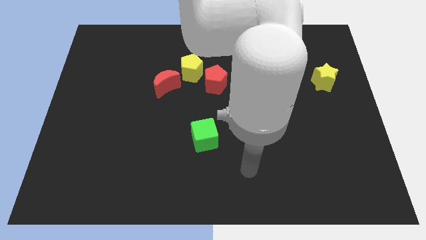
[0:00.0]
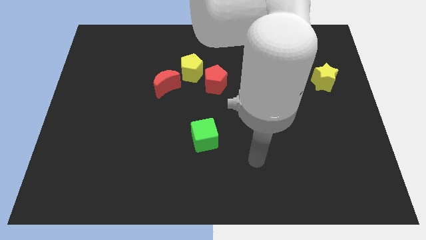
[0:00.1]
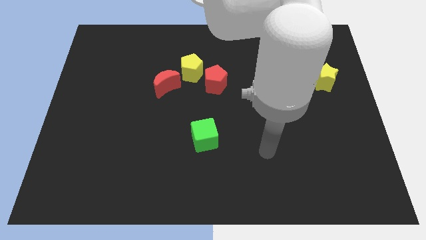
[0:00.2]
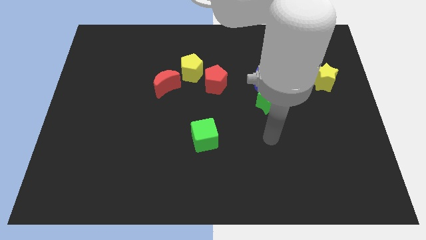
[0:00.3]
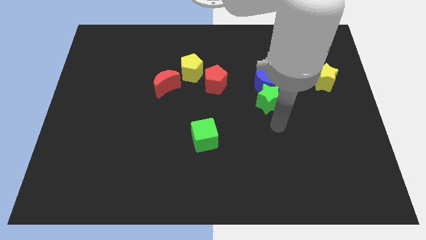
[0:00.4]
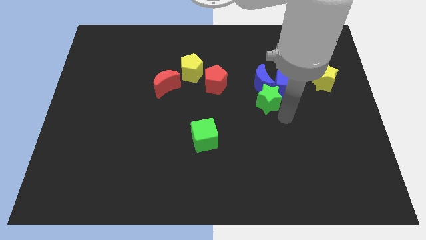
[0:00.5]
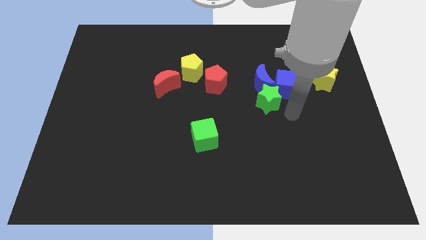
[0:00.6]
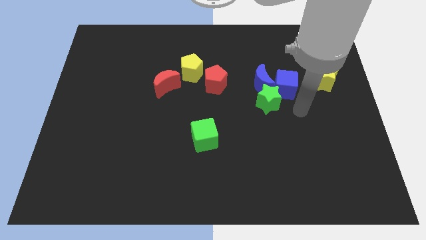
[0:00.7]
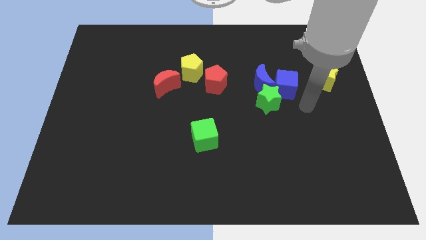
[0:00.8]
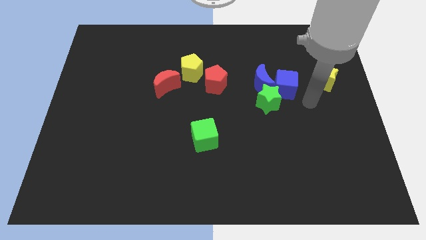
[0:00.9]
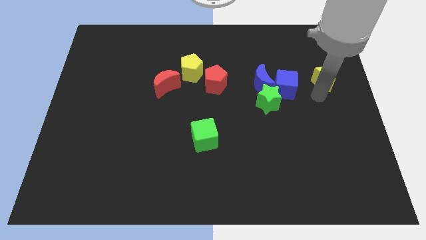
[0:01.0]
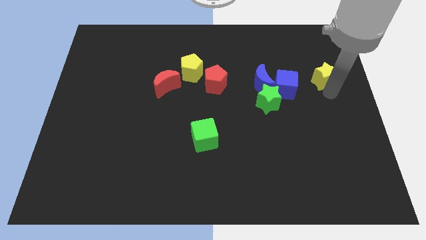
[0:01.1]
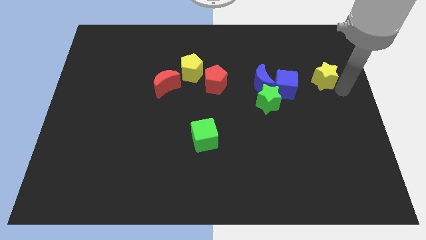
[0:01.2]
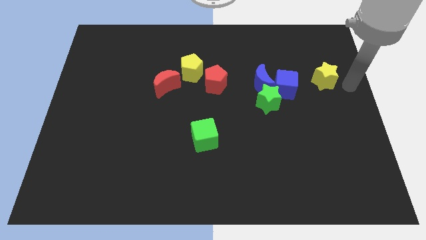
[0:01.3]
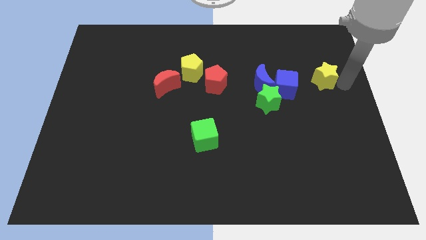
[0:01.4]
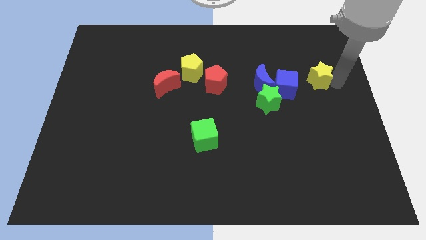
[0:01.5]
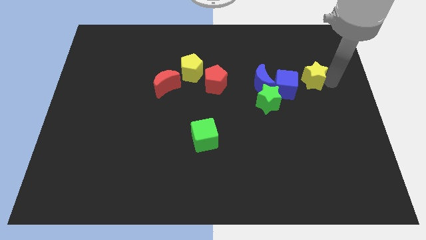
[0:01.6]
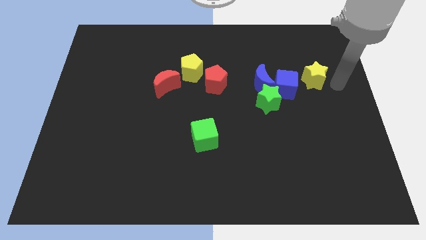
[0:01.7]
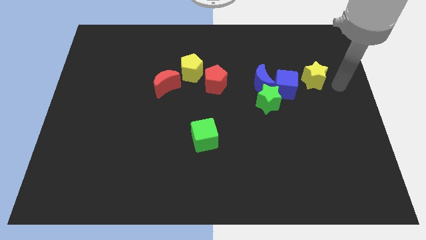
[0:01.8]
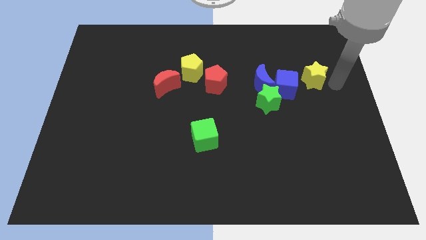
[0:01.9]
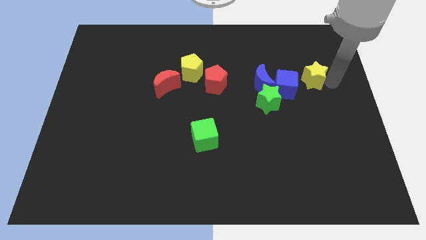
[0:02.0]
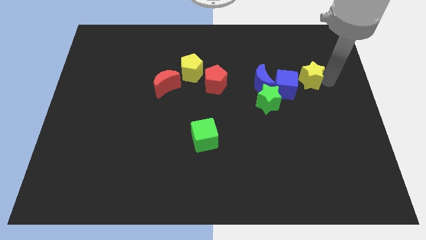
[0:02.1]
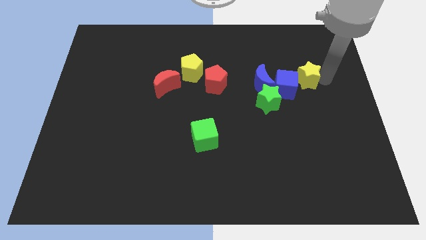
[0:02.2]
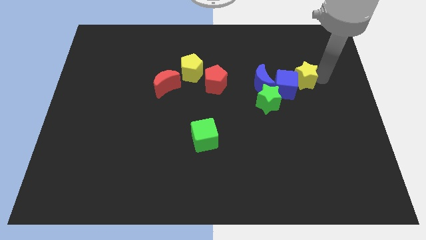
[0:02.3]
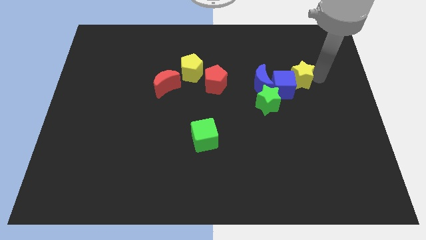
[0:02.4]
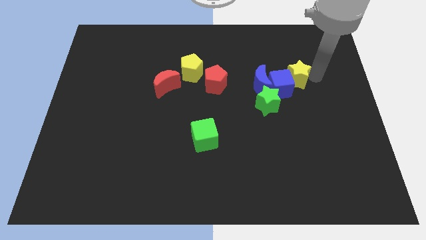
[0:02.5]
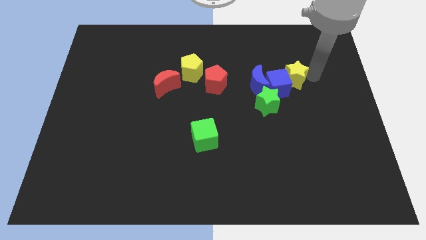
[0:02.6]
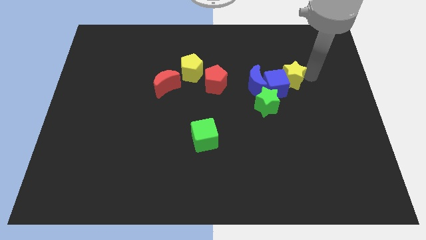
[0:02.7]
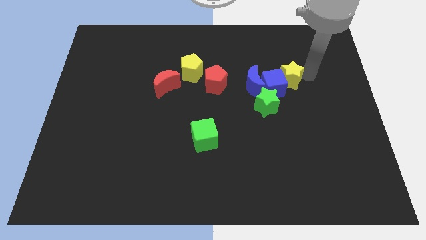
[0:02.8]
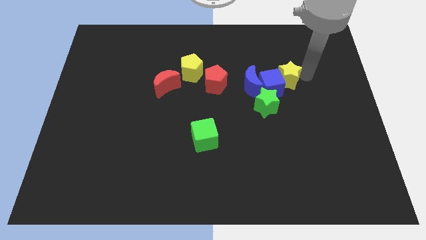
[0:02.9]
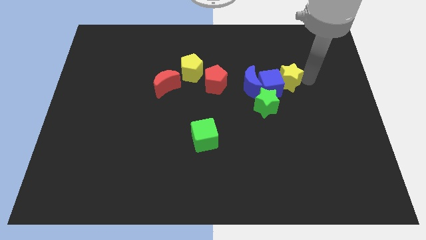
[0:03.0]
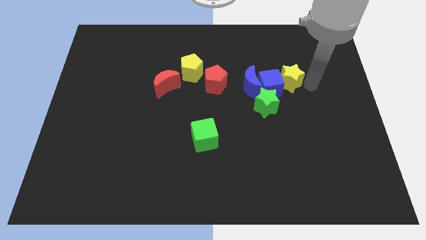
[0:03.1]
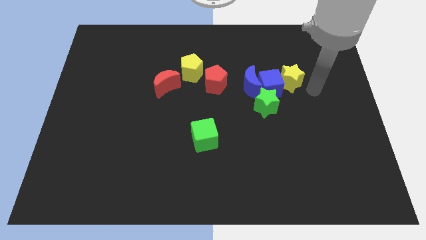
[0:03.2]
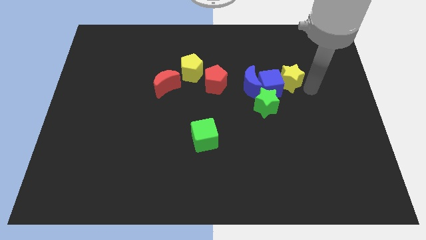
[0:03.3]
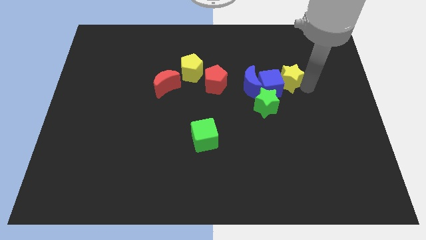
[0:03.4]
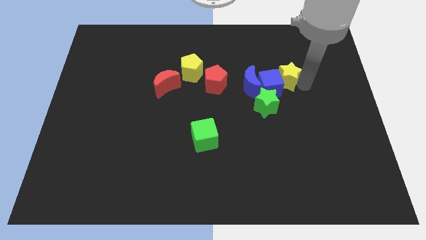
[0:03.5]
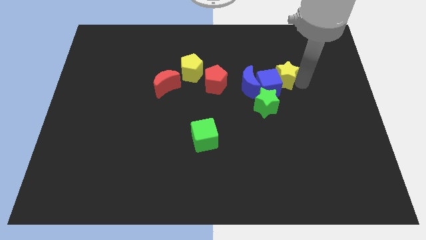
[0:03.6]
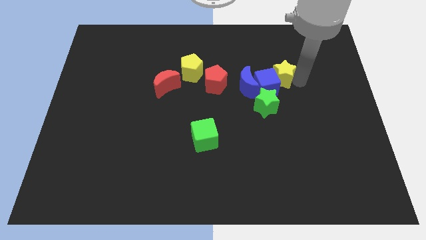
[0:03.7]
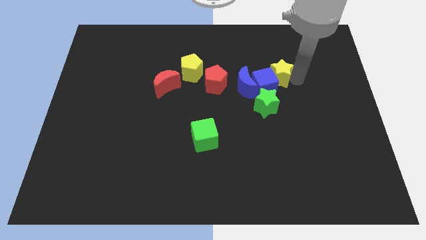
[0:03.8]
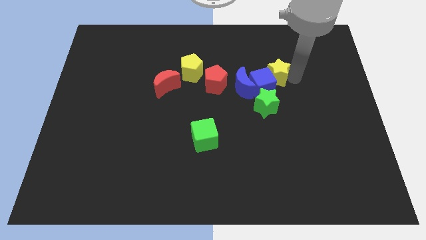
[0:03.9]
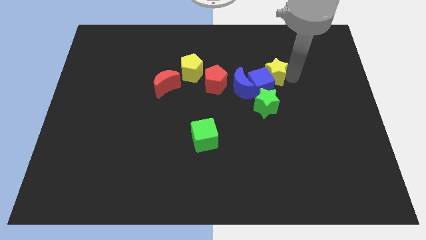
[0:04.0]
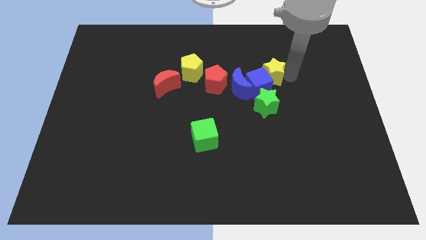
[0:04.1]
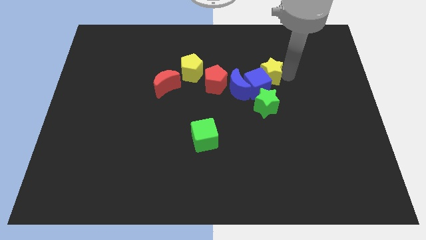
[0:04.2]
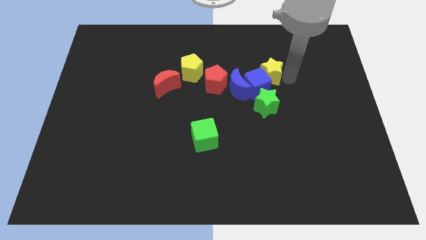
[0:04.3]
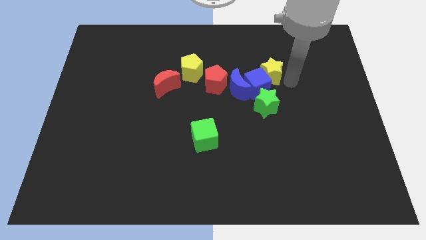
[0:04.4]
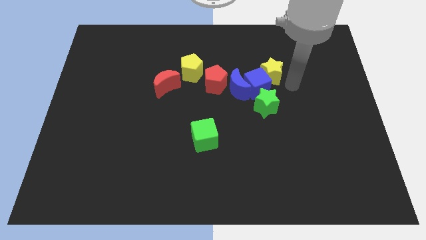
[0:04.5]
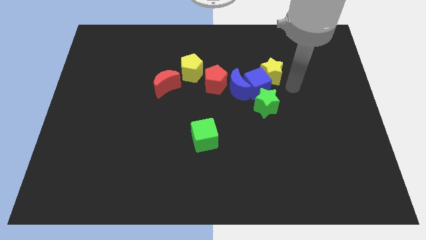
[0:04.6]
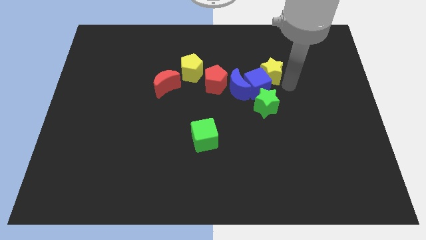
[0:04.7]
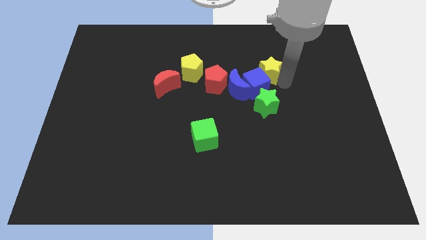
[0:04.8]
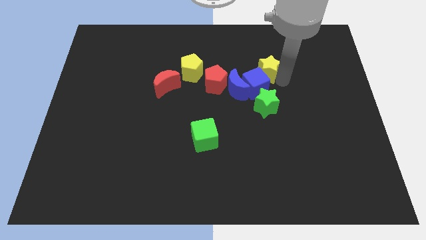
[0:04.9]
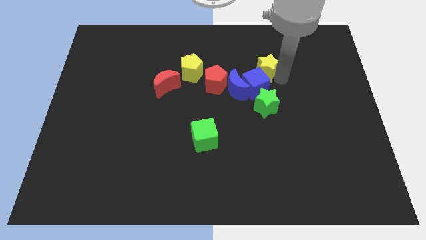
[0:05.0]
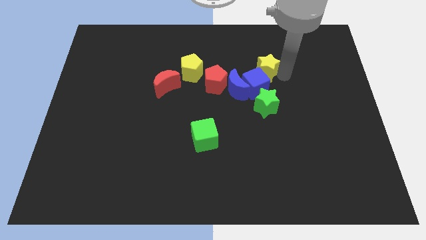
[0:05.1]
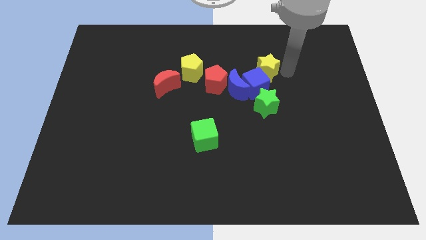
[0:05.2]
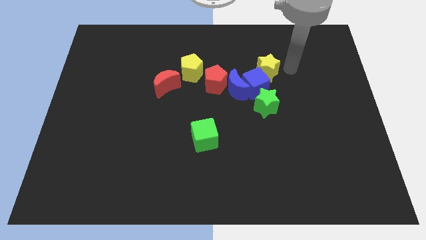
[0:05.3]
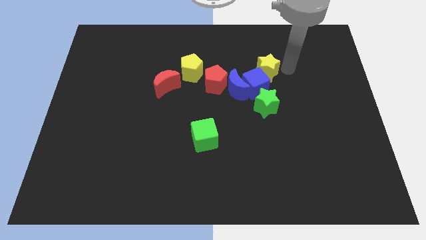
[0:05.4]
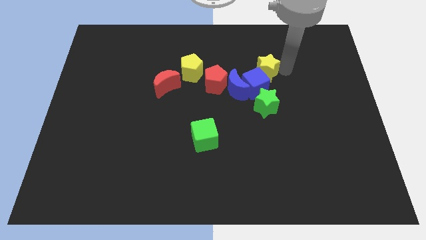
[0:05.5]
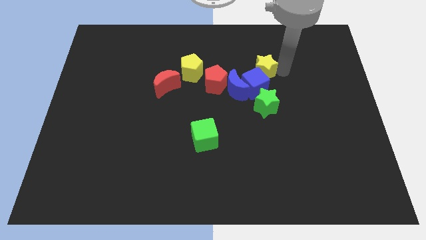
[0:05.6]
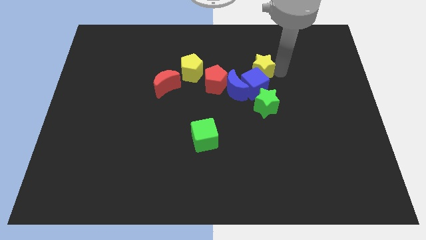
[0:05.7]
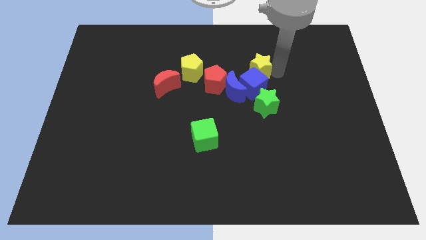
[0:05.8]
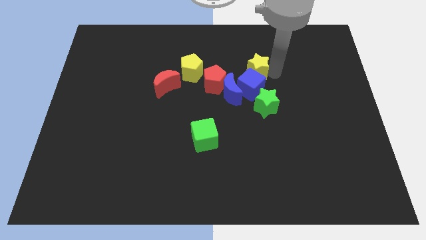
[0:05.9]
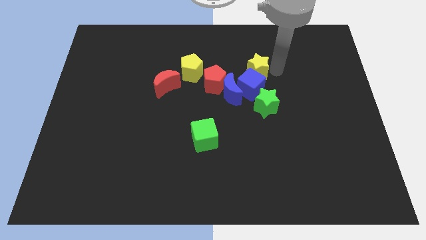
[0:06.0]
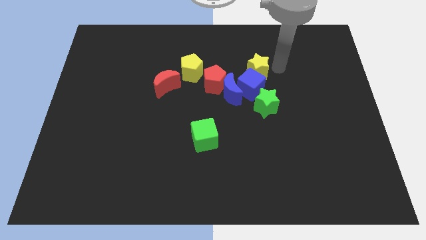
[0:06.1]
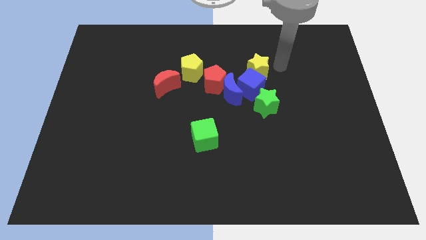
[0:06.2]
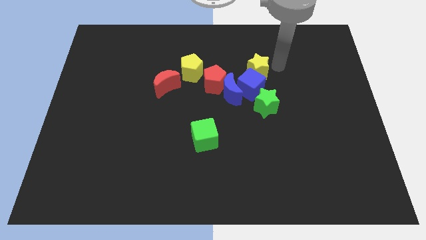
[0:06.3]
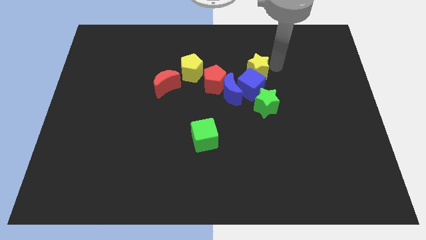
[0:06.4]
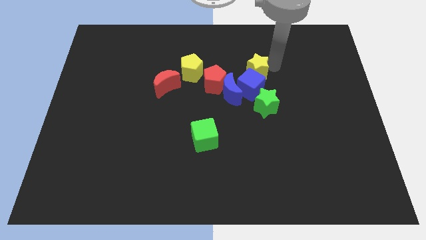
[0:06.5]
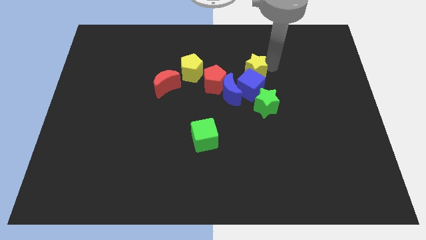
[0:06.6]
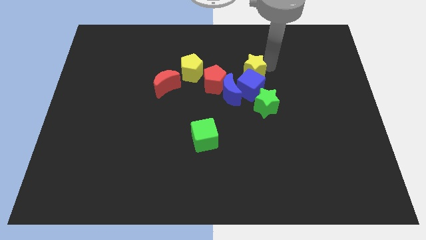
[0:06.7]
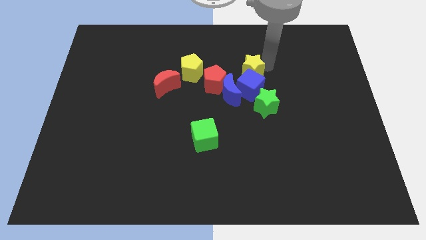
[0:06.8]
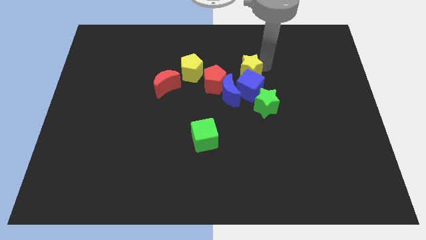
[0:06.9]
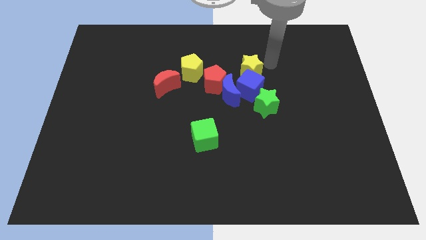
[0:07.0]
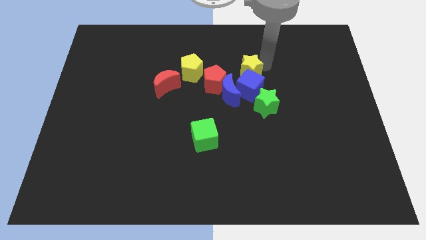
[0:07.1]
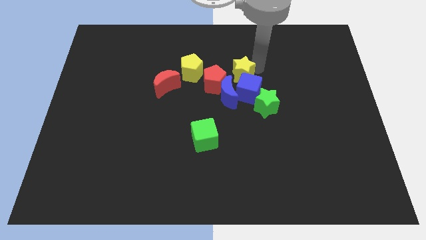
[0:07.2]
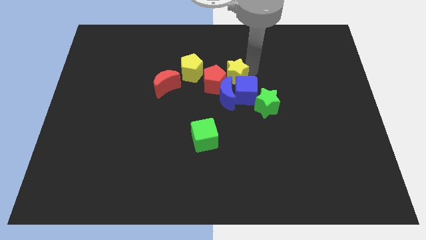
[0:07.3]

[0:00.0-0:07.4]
move the yellow star towards the red pentagon
